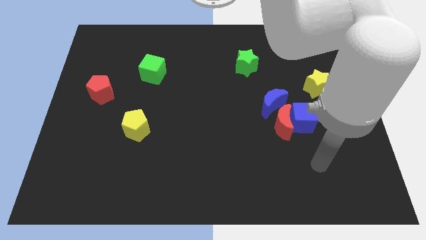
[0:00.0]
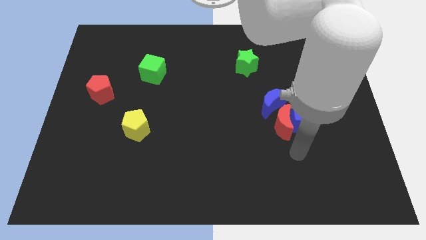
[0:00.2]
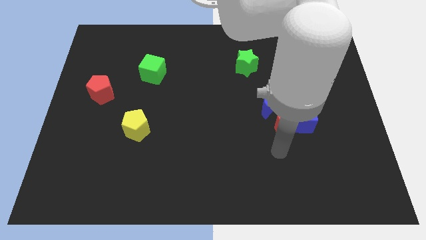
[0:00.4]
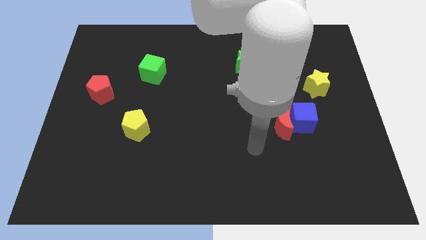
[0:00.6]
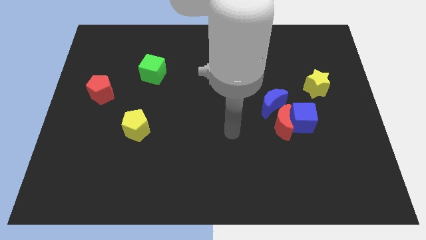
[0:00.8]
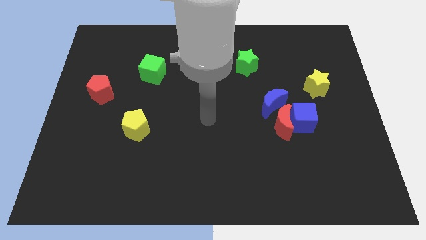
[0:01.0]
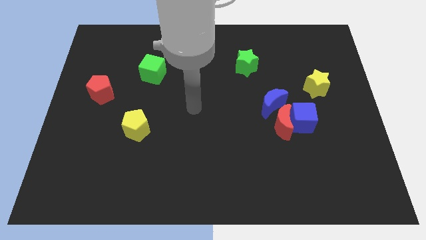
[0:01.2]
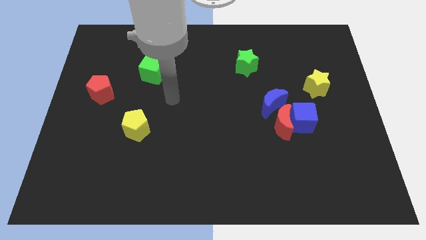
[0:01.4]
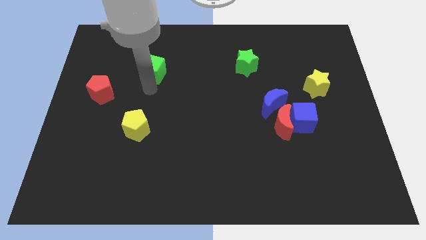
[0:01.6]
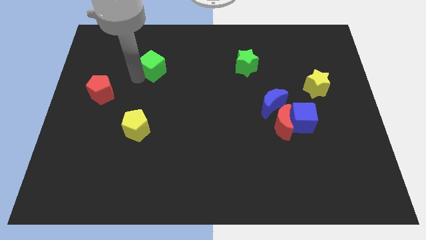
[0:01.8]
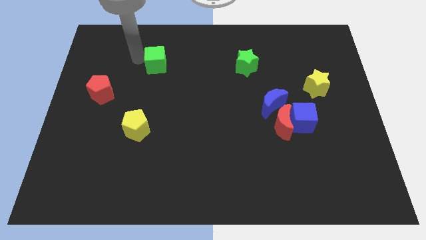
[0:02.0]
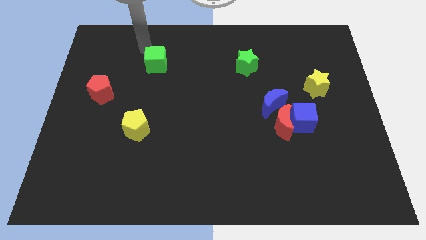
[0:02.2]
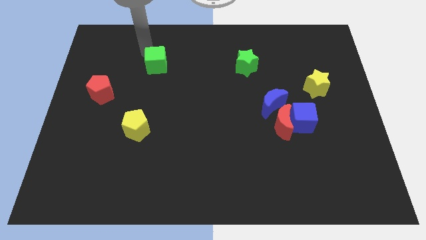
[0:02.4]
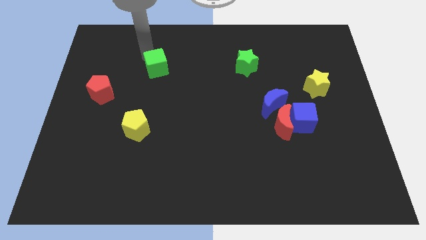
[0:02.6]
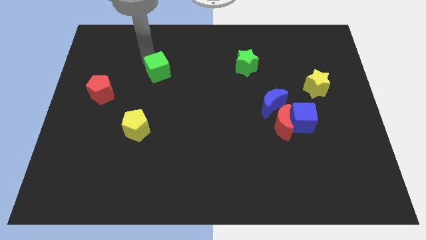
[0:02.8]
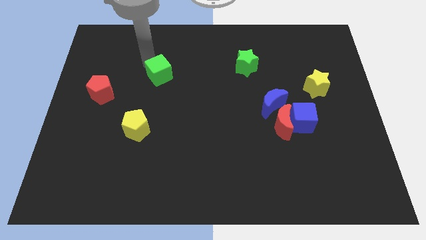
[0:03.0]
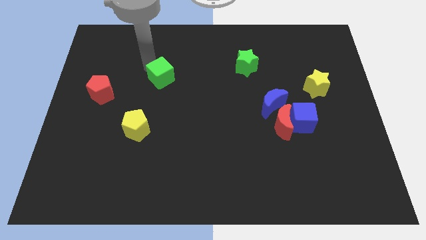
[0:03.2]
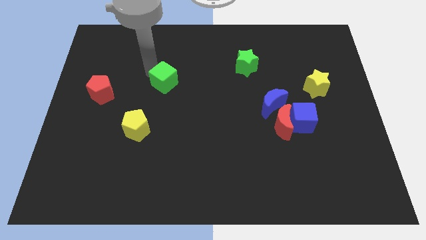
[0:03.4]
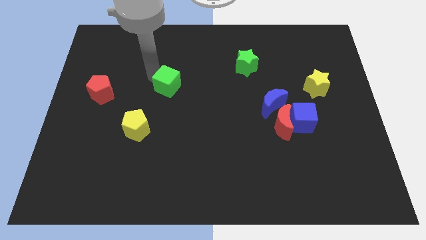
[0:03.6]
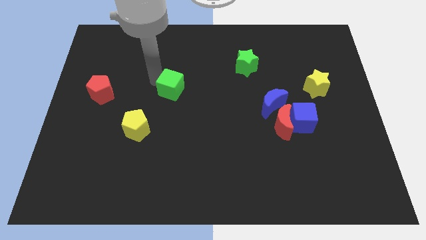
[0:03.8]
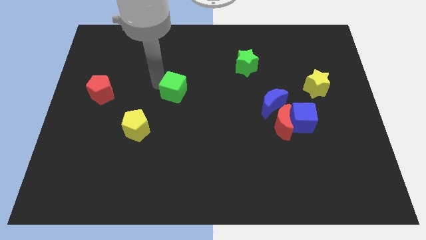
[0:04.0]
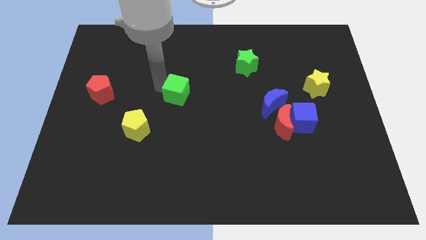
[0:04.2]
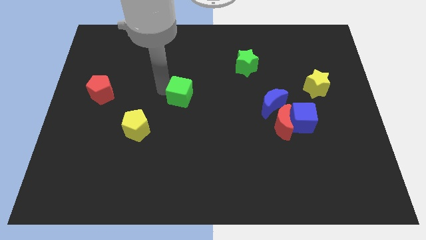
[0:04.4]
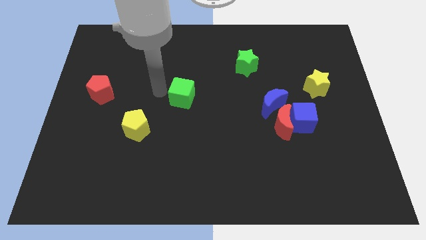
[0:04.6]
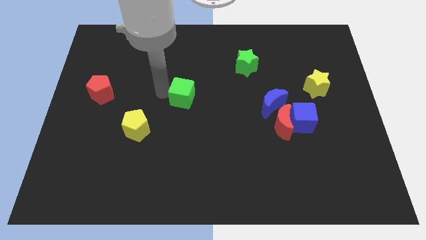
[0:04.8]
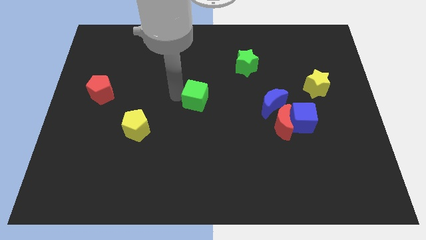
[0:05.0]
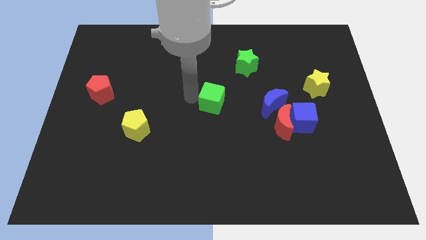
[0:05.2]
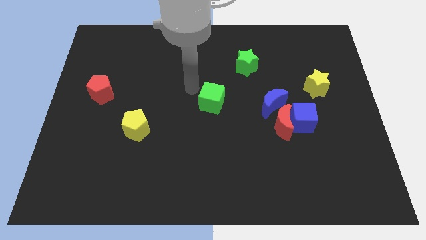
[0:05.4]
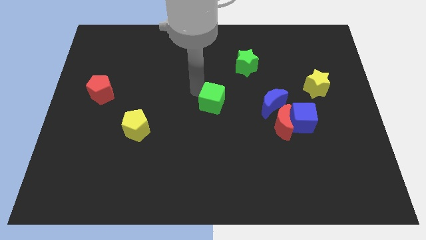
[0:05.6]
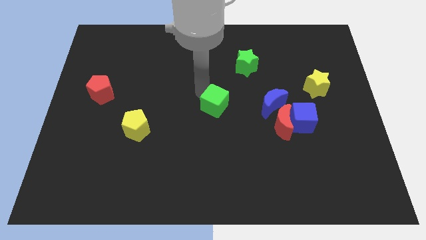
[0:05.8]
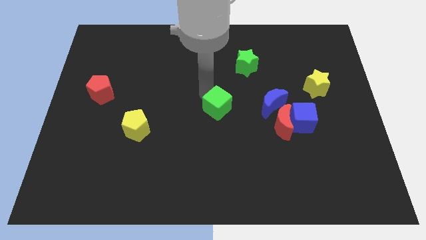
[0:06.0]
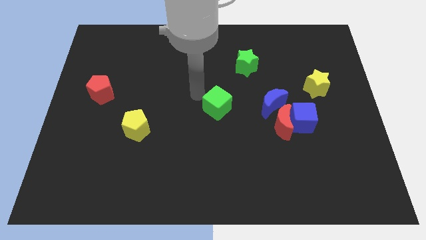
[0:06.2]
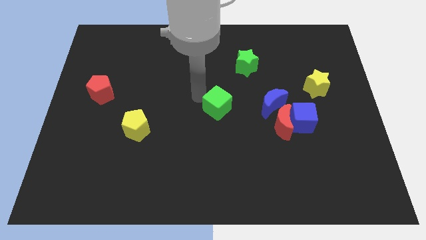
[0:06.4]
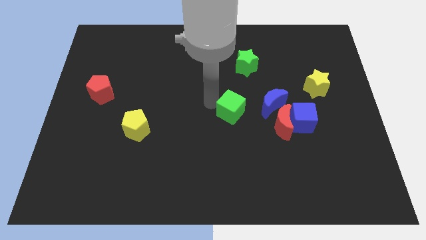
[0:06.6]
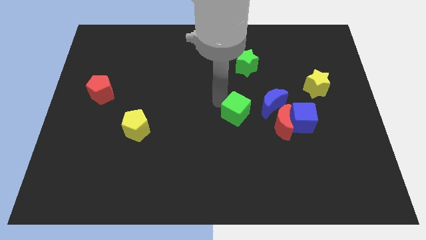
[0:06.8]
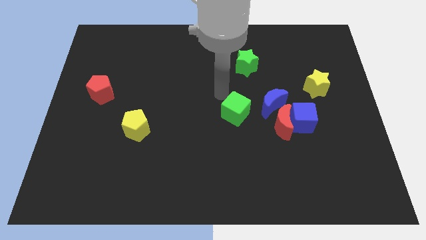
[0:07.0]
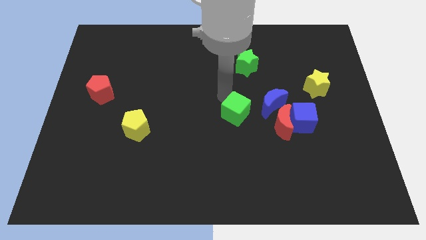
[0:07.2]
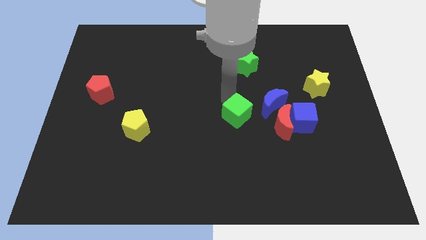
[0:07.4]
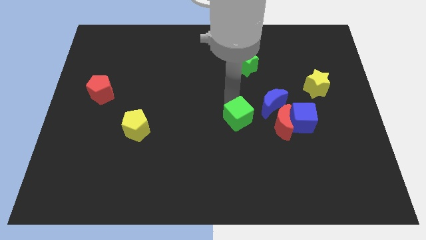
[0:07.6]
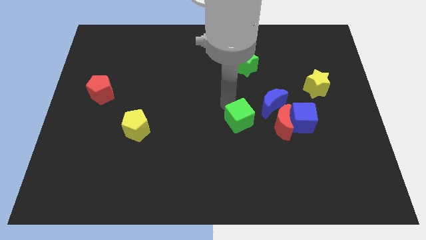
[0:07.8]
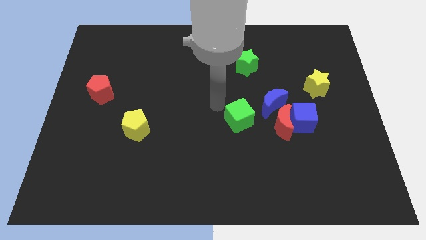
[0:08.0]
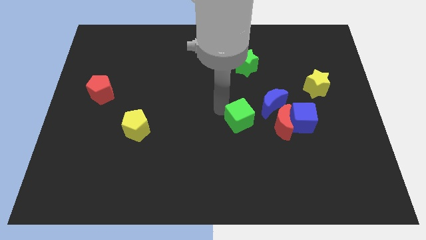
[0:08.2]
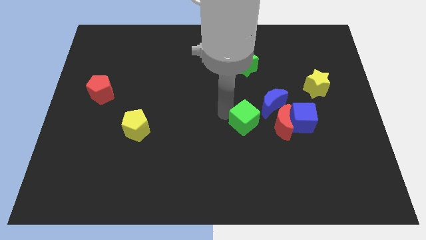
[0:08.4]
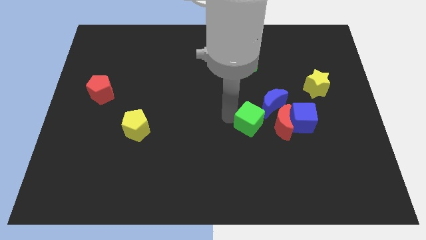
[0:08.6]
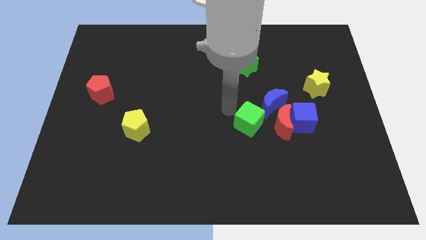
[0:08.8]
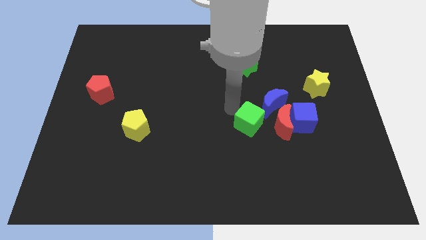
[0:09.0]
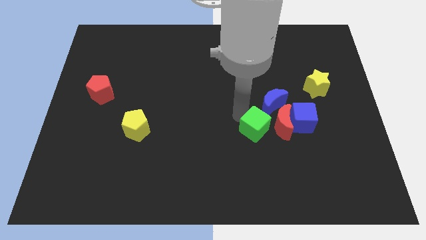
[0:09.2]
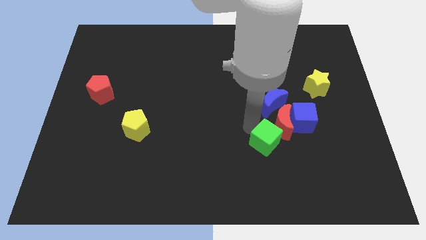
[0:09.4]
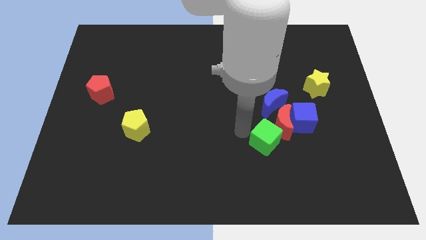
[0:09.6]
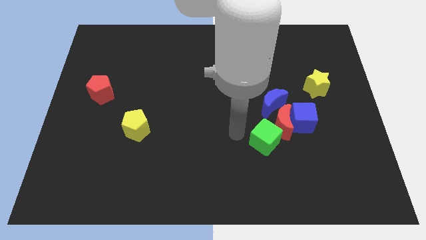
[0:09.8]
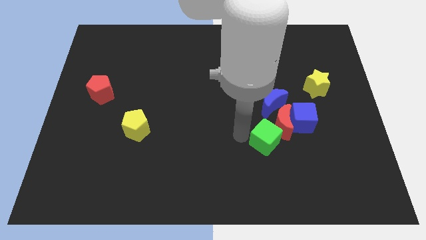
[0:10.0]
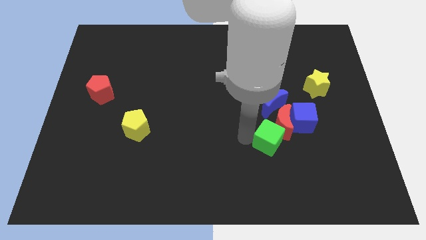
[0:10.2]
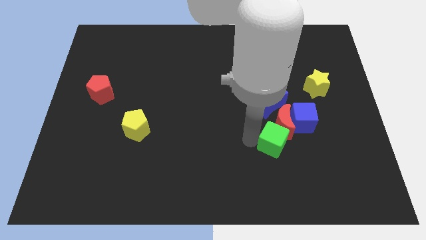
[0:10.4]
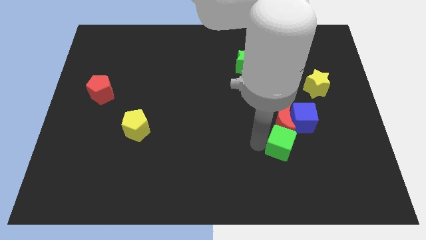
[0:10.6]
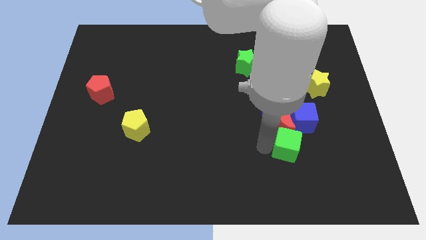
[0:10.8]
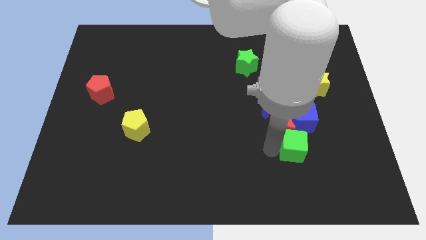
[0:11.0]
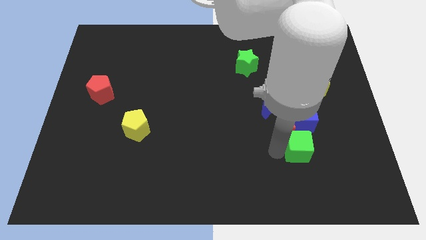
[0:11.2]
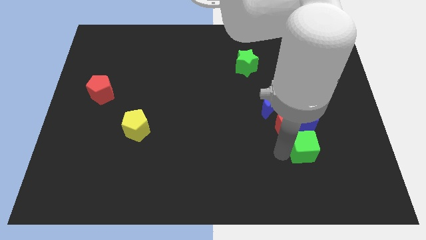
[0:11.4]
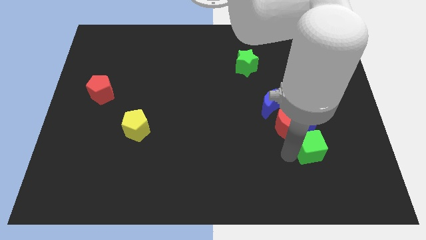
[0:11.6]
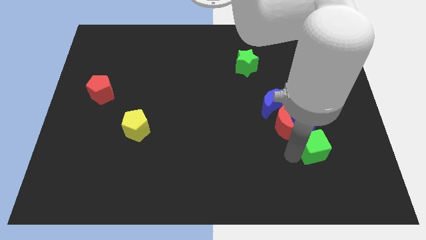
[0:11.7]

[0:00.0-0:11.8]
put the green cube diagonally down and to the right of the blue cube
